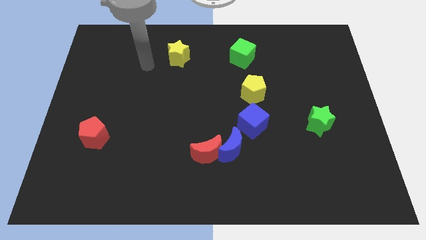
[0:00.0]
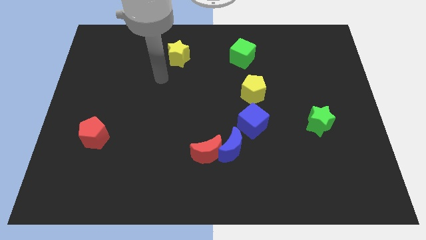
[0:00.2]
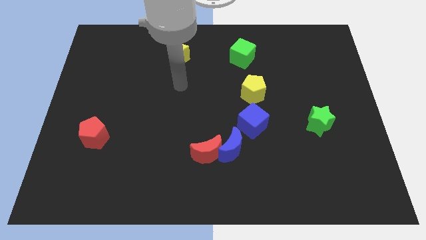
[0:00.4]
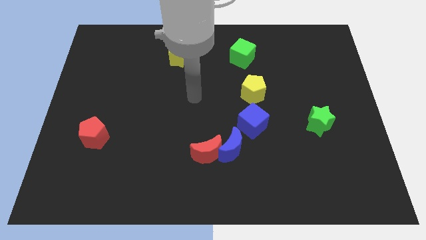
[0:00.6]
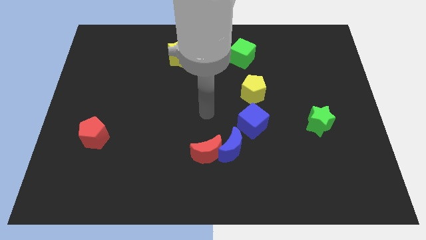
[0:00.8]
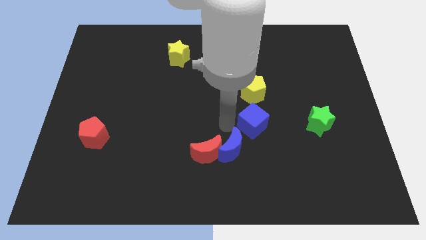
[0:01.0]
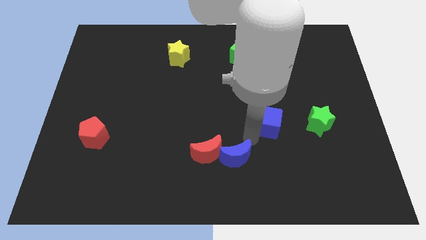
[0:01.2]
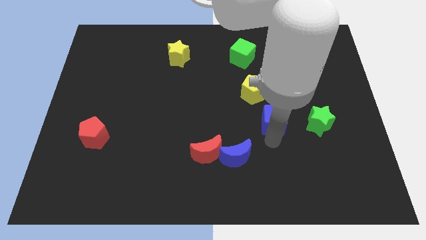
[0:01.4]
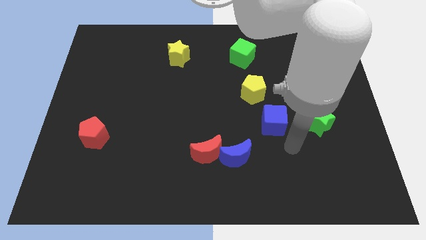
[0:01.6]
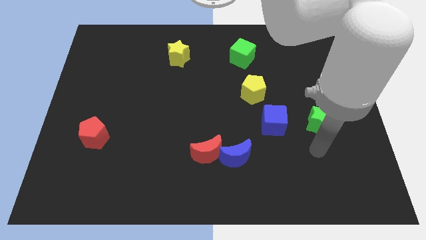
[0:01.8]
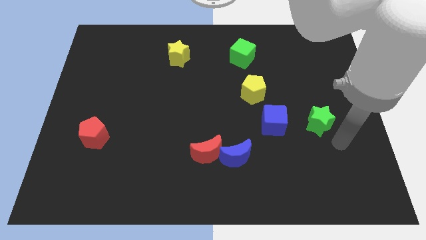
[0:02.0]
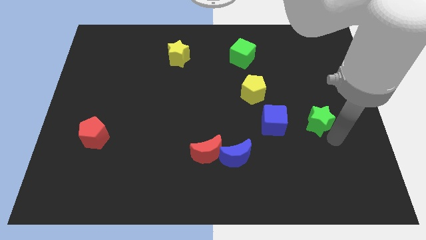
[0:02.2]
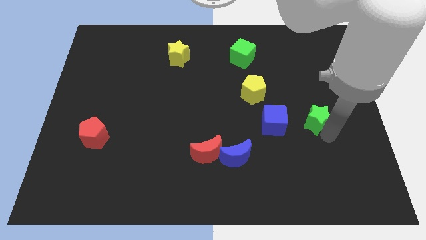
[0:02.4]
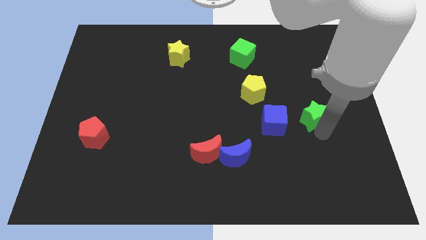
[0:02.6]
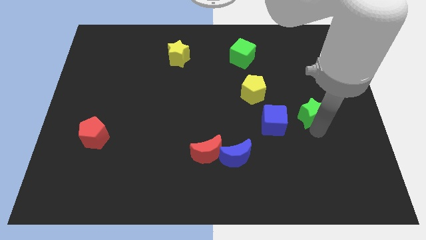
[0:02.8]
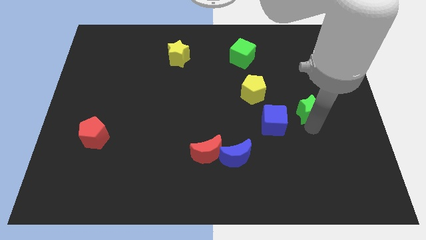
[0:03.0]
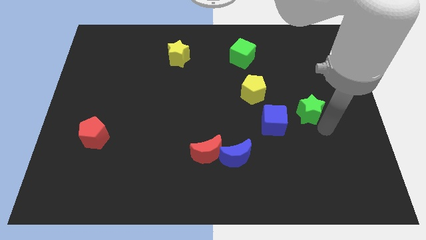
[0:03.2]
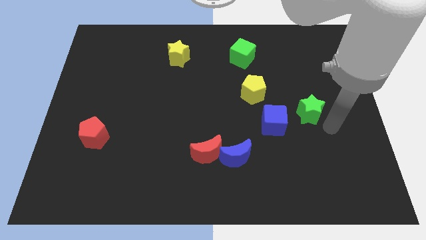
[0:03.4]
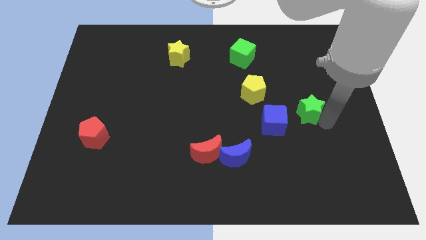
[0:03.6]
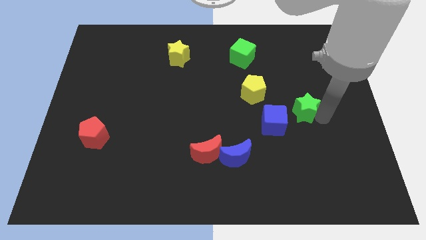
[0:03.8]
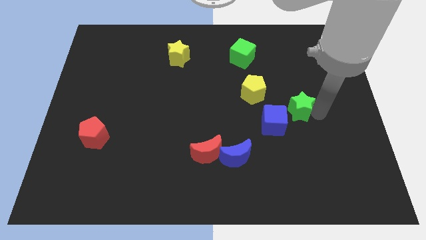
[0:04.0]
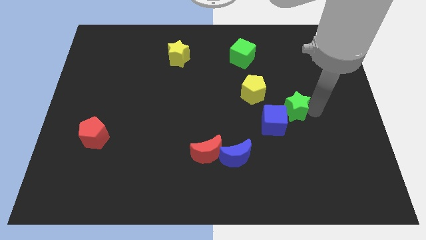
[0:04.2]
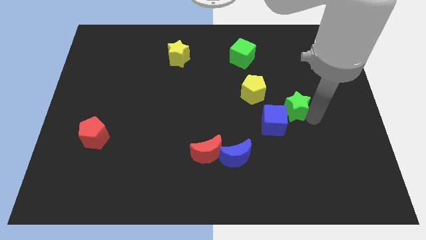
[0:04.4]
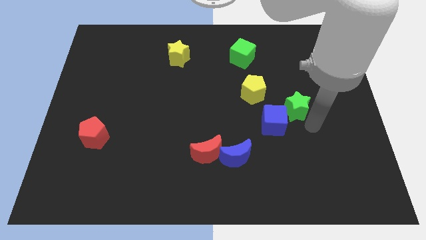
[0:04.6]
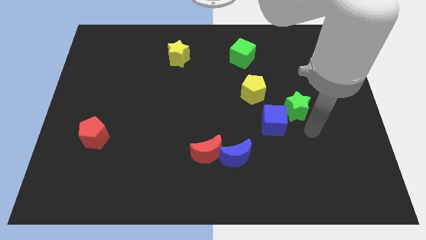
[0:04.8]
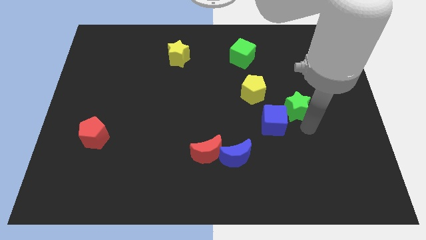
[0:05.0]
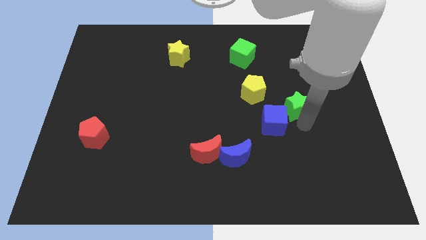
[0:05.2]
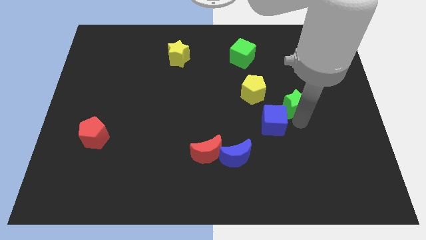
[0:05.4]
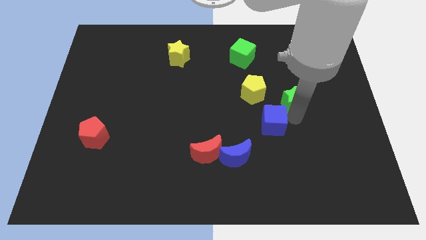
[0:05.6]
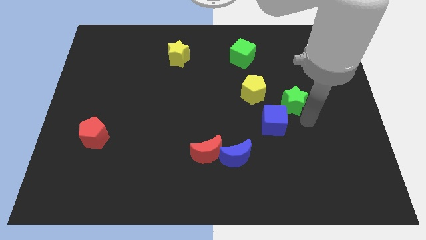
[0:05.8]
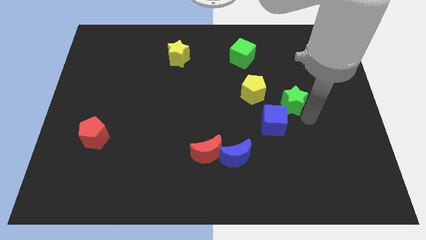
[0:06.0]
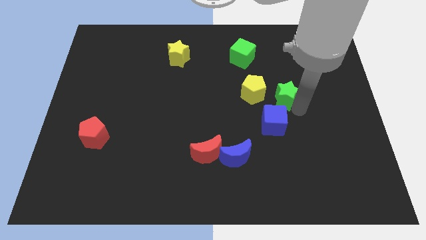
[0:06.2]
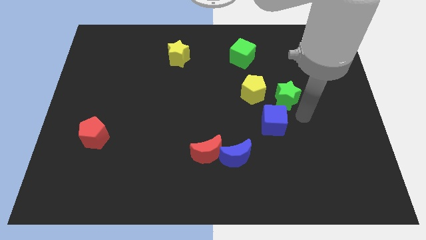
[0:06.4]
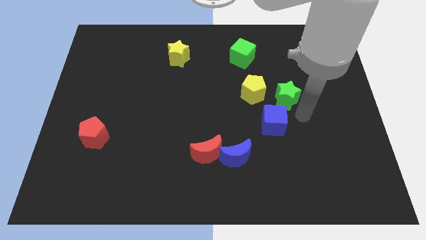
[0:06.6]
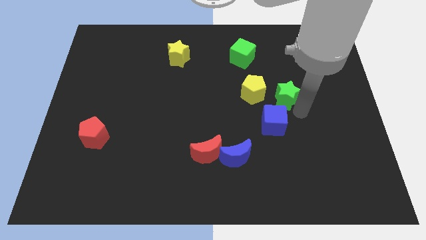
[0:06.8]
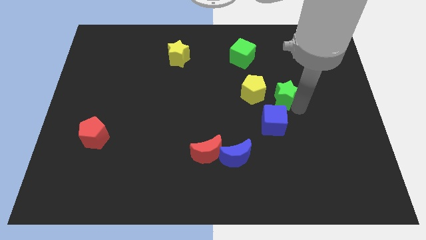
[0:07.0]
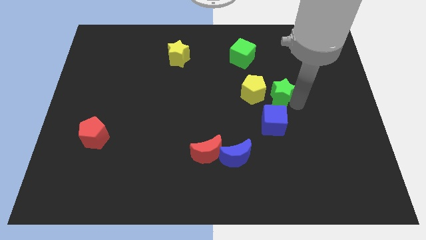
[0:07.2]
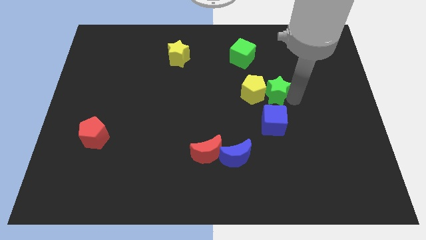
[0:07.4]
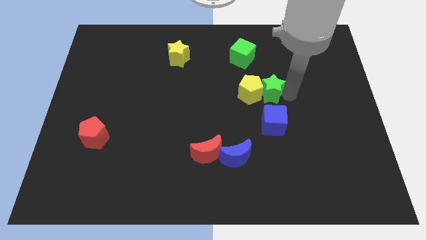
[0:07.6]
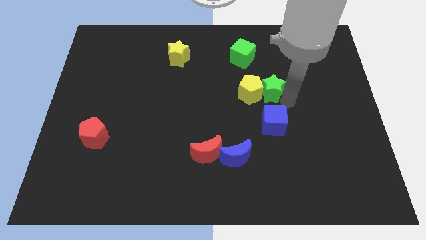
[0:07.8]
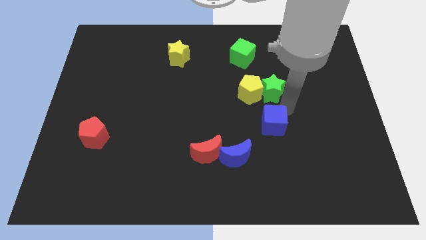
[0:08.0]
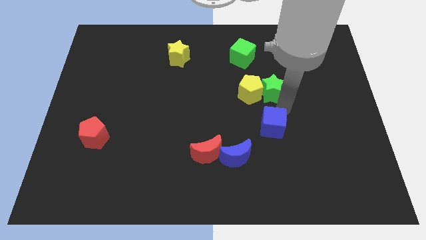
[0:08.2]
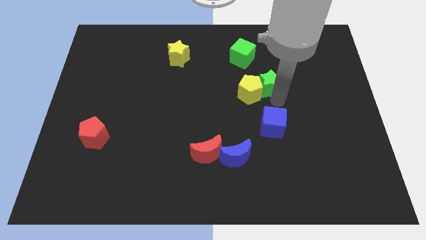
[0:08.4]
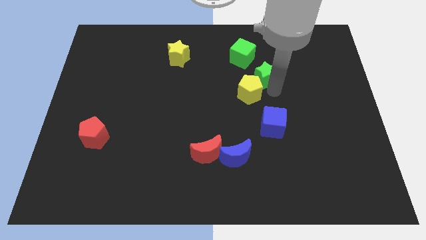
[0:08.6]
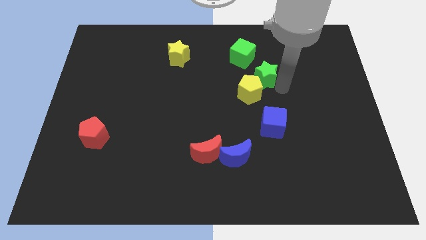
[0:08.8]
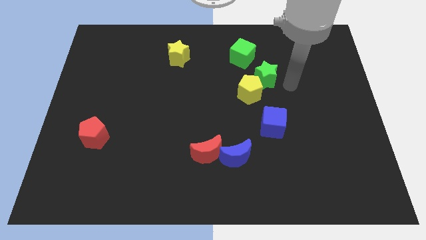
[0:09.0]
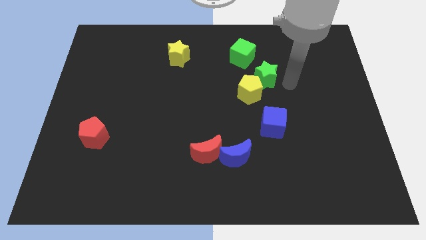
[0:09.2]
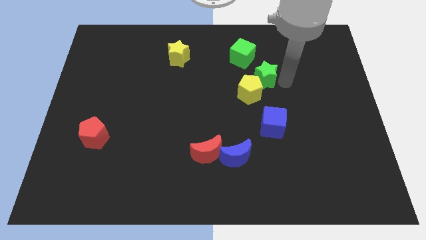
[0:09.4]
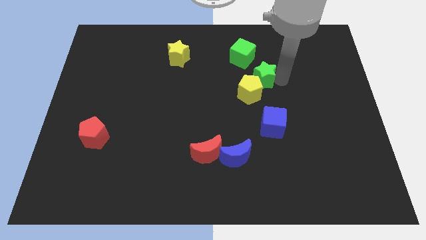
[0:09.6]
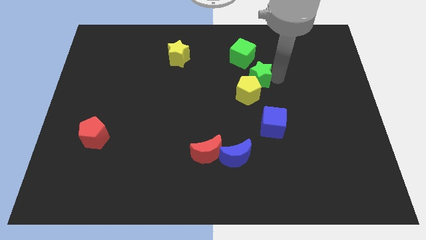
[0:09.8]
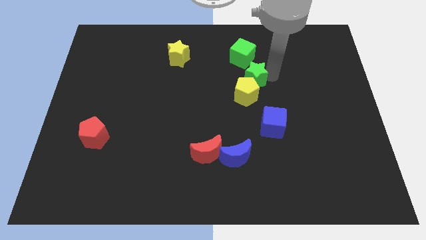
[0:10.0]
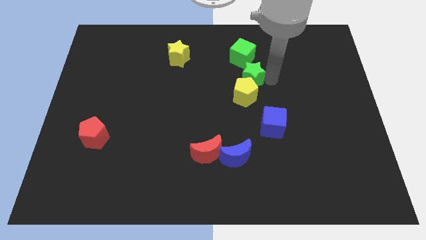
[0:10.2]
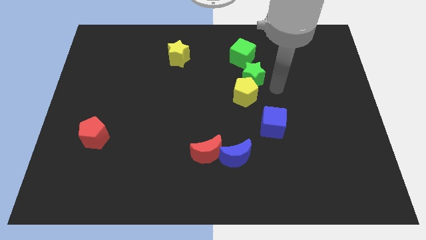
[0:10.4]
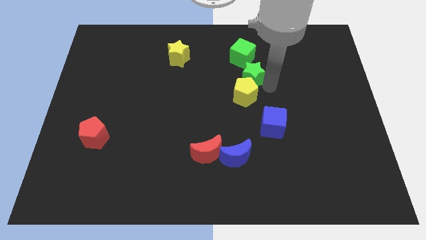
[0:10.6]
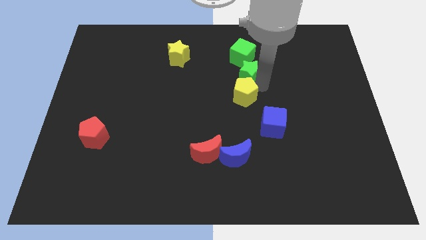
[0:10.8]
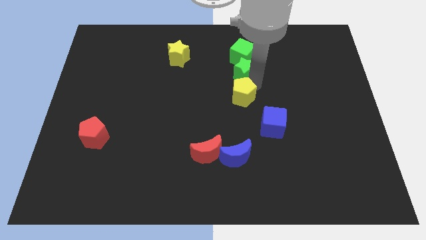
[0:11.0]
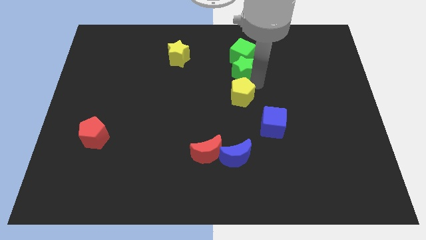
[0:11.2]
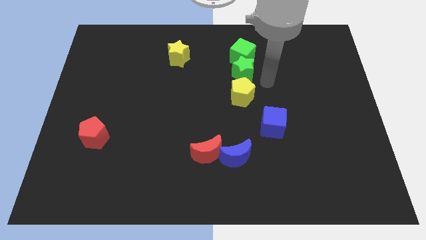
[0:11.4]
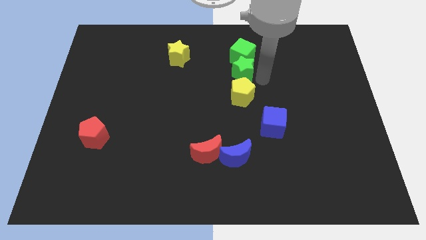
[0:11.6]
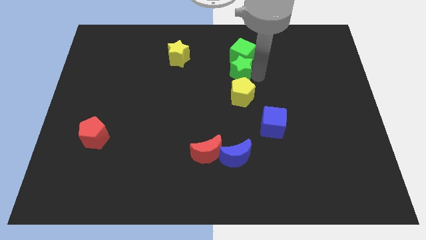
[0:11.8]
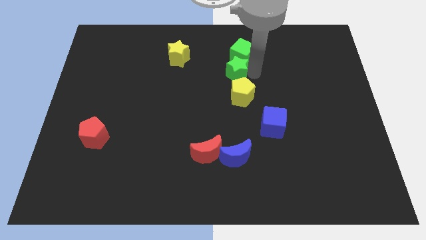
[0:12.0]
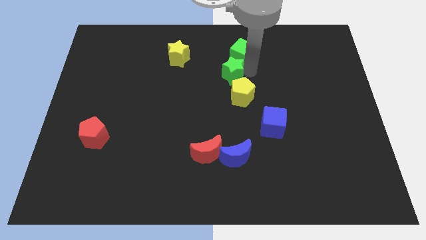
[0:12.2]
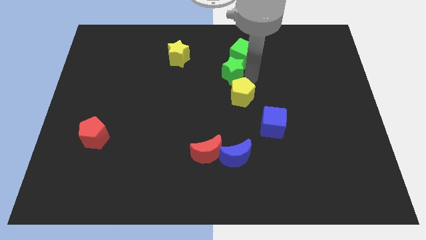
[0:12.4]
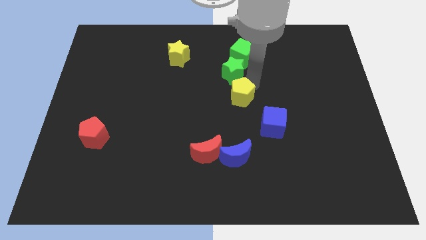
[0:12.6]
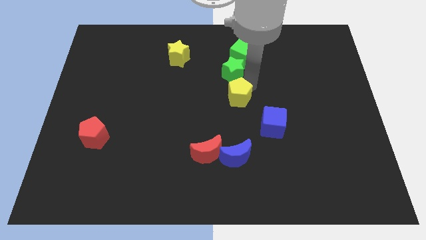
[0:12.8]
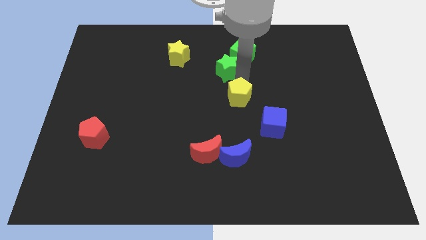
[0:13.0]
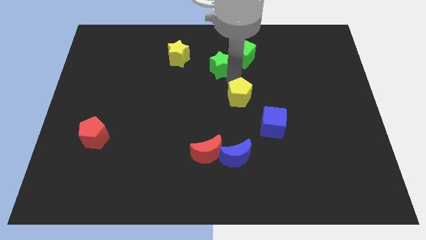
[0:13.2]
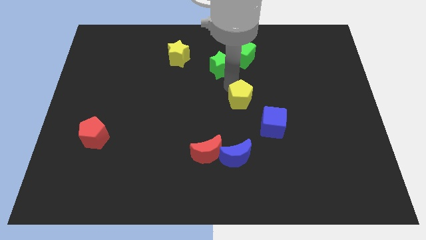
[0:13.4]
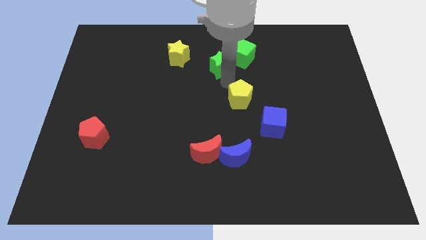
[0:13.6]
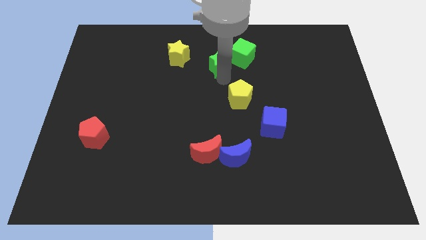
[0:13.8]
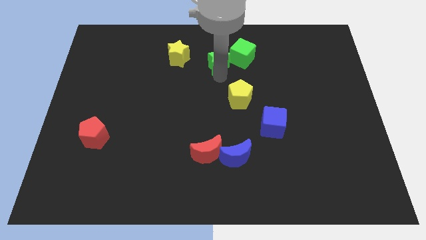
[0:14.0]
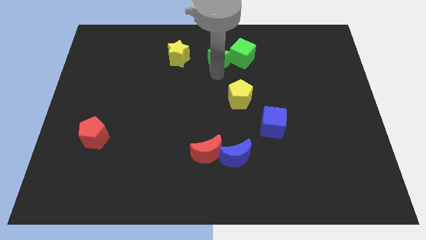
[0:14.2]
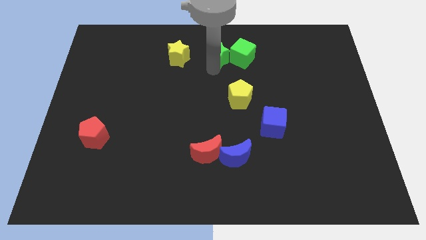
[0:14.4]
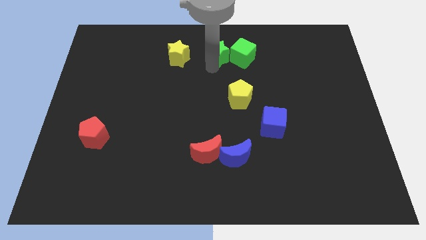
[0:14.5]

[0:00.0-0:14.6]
move the green star to the top side

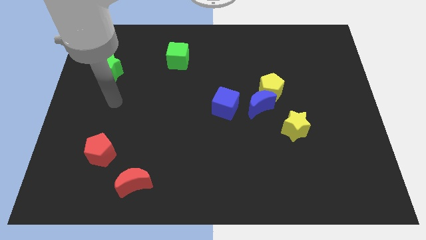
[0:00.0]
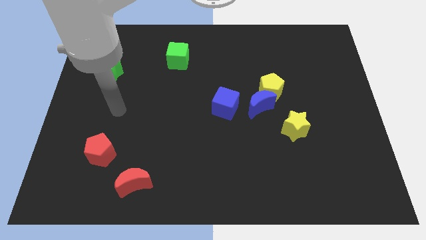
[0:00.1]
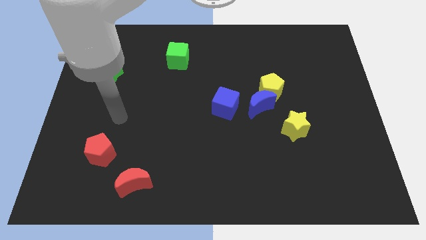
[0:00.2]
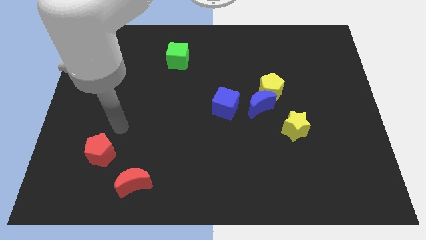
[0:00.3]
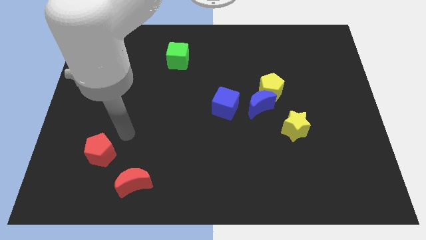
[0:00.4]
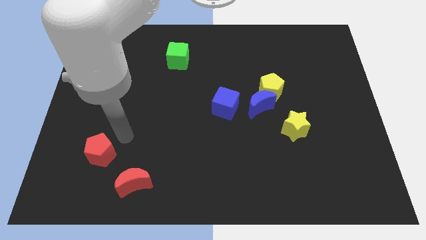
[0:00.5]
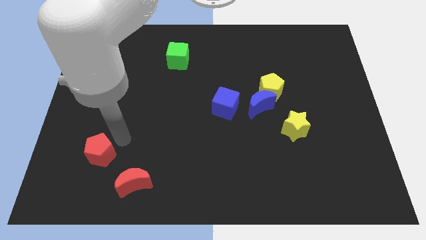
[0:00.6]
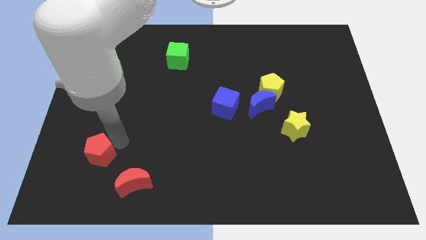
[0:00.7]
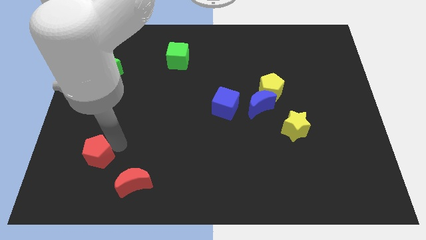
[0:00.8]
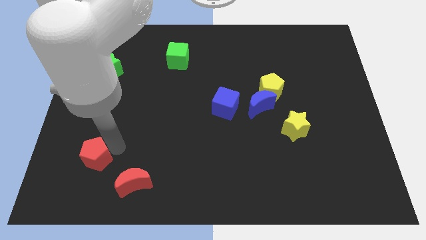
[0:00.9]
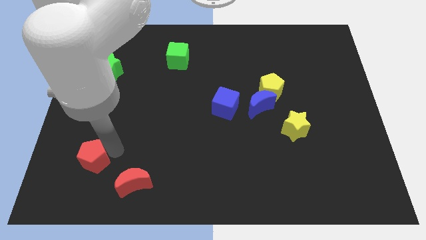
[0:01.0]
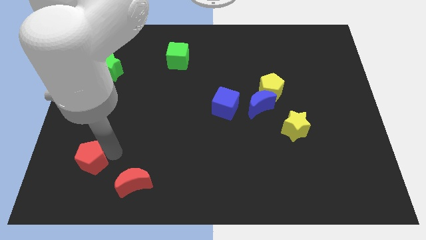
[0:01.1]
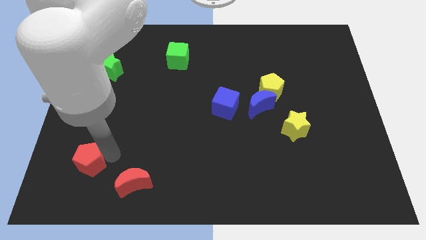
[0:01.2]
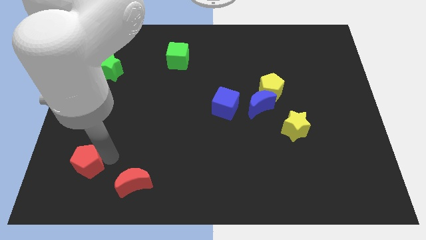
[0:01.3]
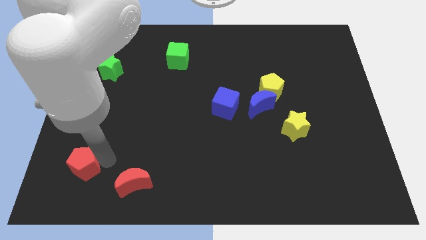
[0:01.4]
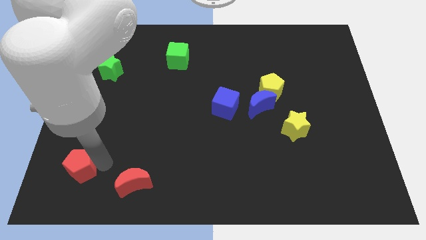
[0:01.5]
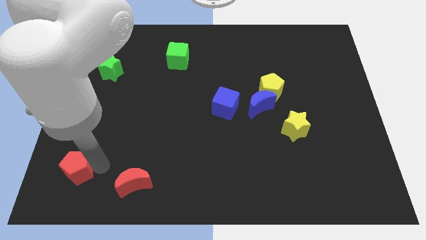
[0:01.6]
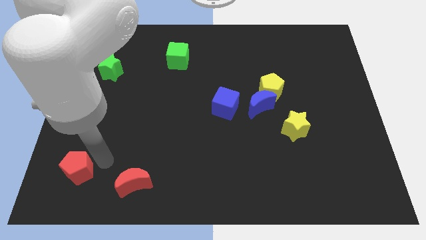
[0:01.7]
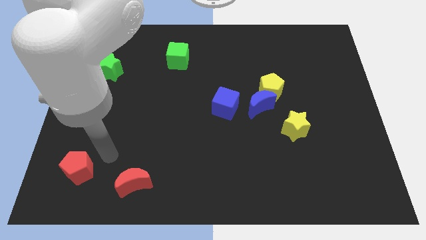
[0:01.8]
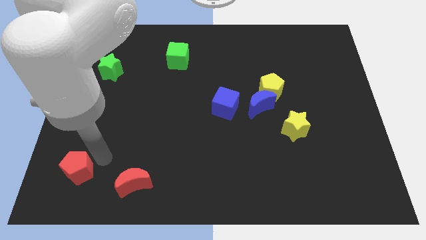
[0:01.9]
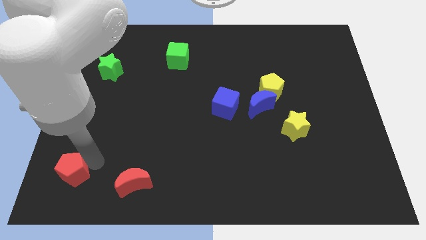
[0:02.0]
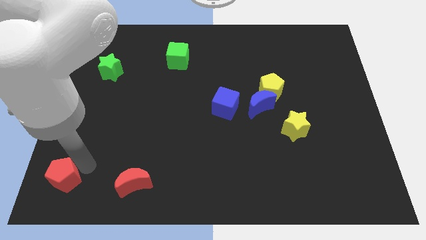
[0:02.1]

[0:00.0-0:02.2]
put the red pentagon to the bottom left
